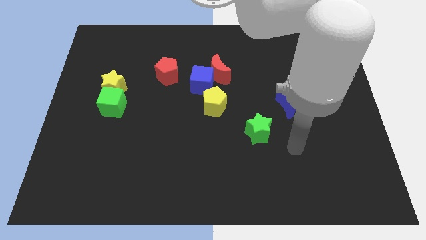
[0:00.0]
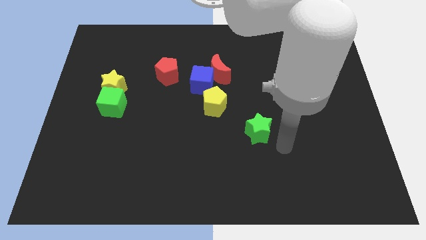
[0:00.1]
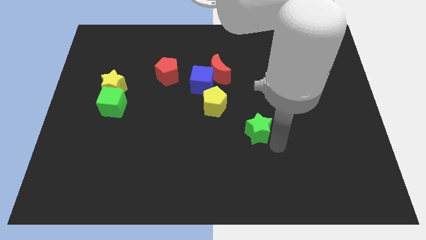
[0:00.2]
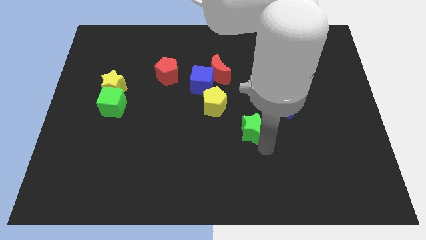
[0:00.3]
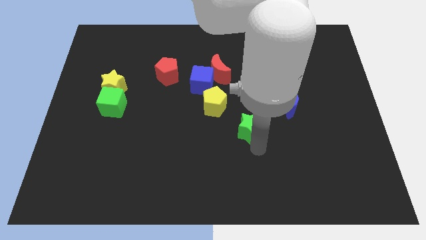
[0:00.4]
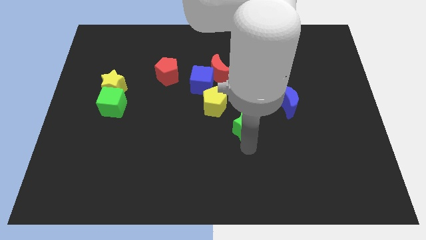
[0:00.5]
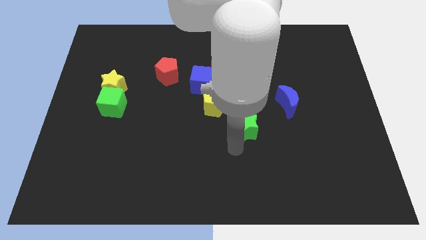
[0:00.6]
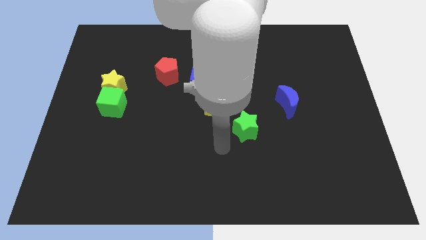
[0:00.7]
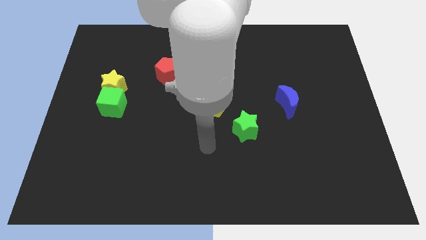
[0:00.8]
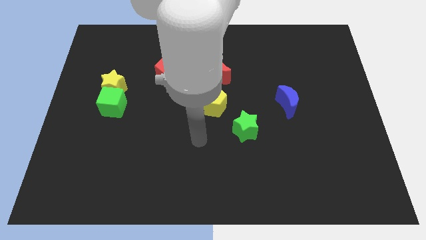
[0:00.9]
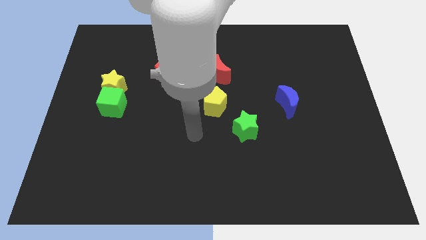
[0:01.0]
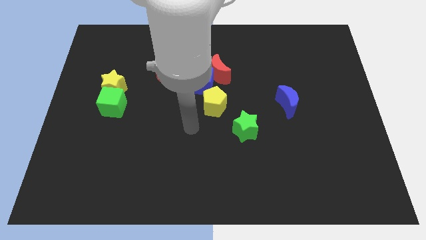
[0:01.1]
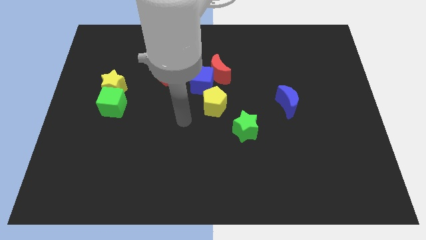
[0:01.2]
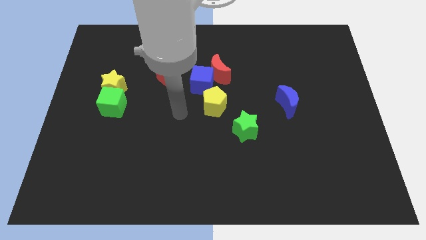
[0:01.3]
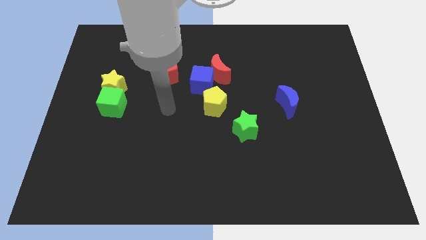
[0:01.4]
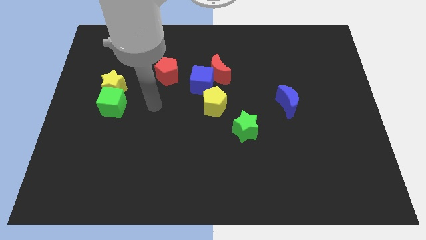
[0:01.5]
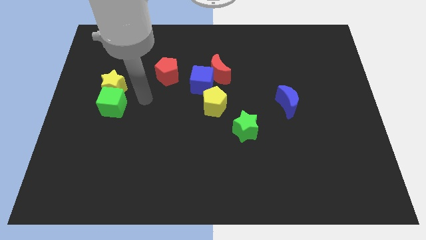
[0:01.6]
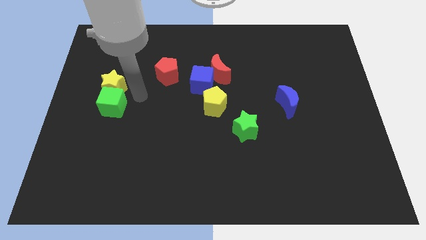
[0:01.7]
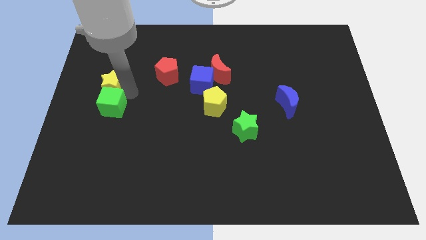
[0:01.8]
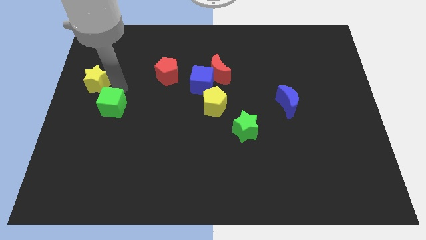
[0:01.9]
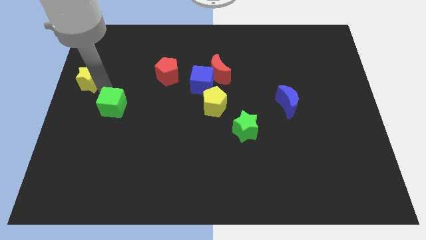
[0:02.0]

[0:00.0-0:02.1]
separate the green cube from the yellow star

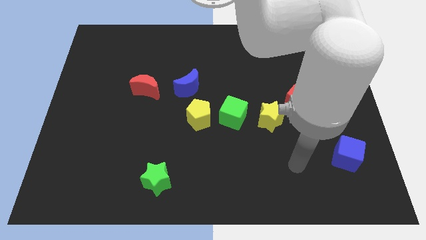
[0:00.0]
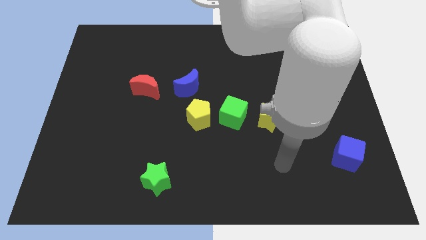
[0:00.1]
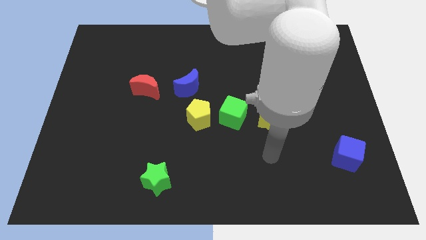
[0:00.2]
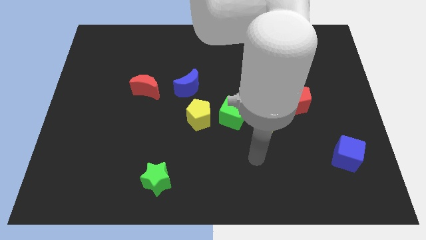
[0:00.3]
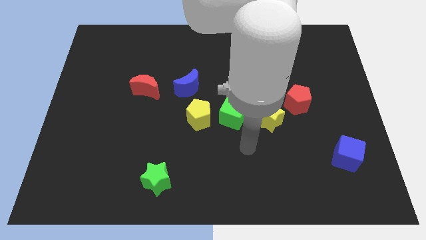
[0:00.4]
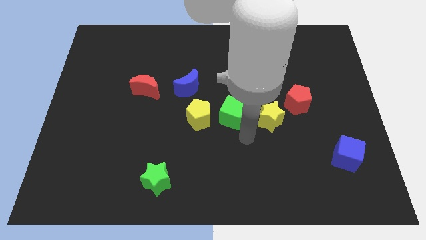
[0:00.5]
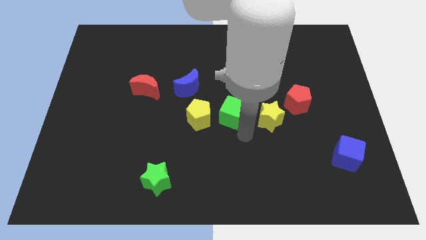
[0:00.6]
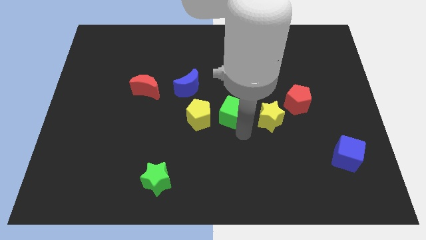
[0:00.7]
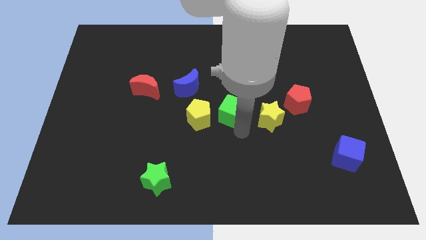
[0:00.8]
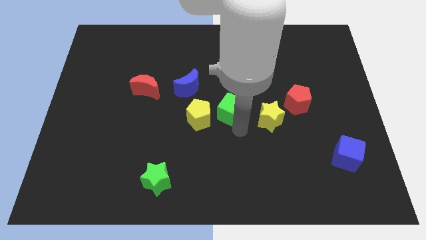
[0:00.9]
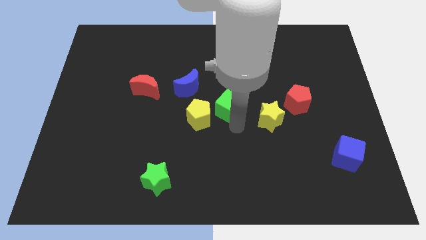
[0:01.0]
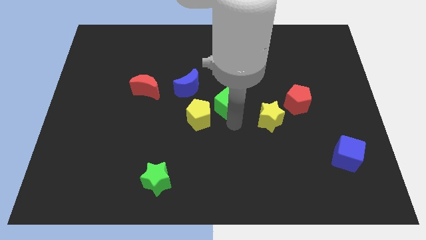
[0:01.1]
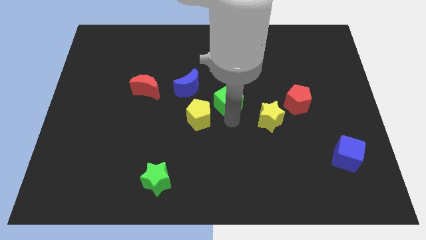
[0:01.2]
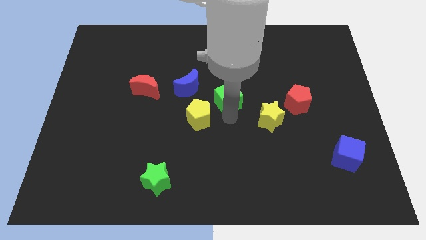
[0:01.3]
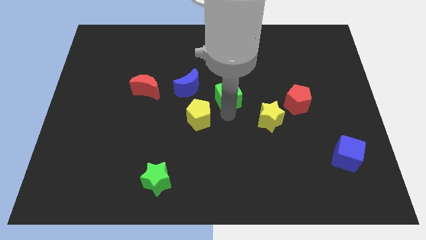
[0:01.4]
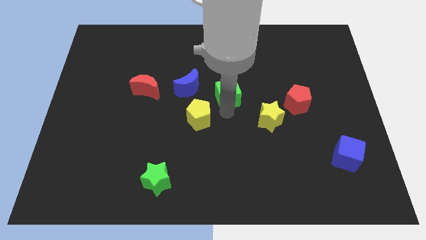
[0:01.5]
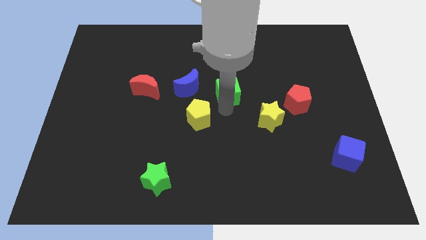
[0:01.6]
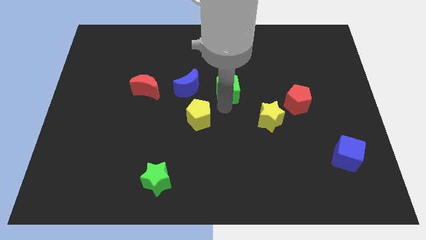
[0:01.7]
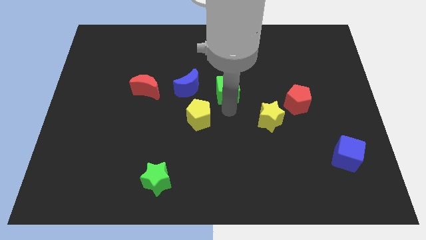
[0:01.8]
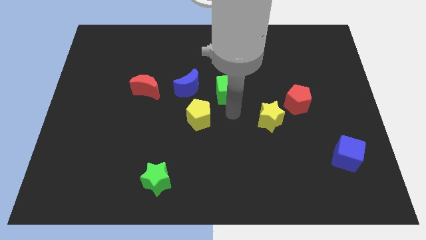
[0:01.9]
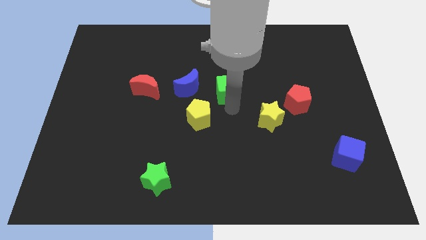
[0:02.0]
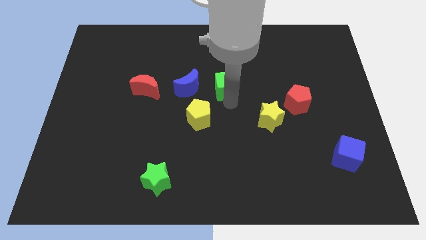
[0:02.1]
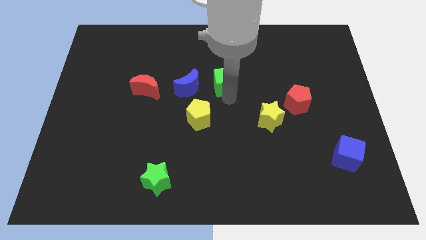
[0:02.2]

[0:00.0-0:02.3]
pull the green cube apart from the yellow pentagon and yellow star

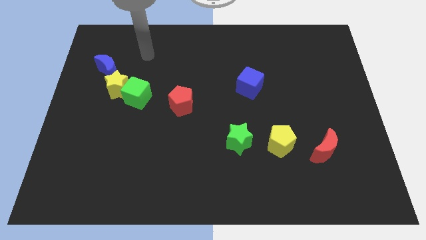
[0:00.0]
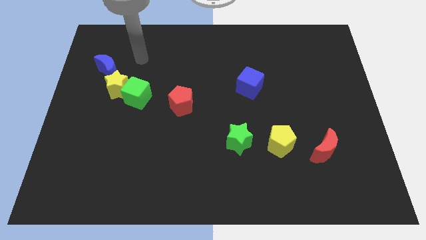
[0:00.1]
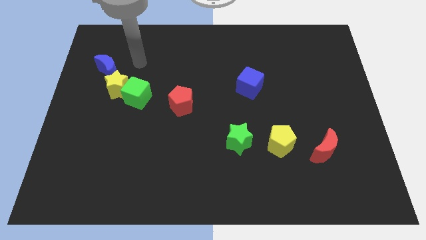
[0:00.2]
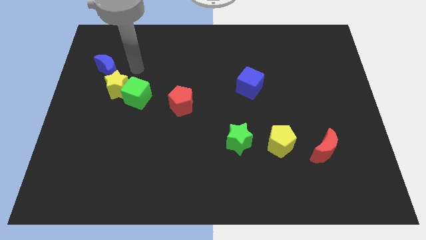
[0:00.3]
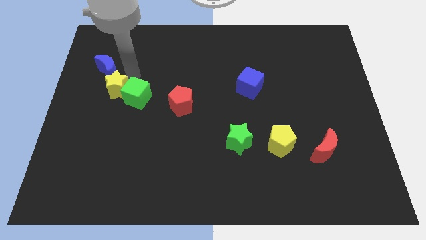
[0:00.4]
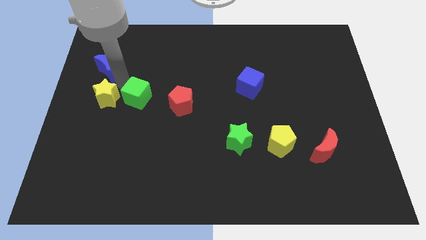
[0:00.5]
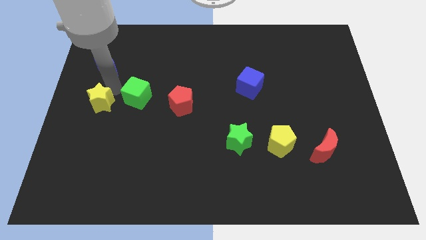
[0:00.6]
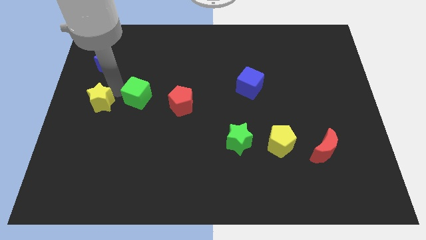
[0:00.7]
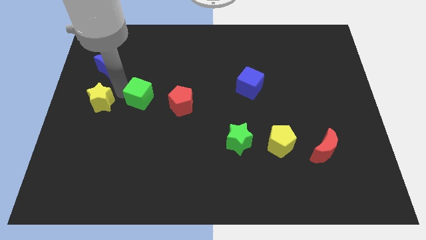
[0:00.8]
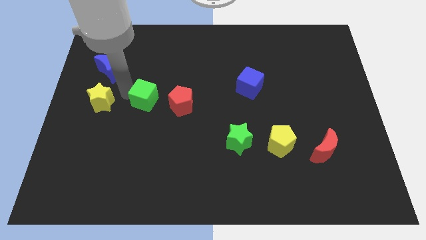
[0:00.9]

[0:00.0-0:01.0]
move the green cube away from the yellow star

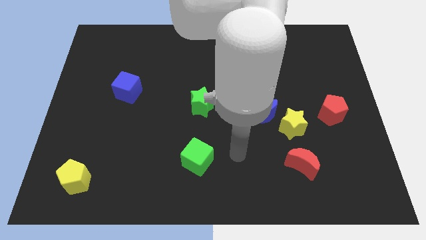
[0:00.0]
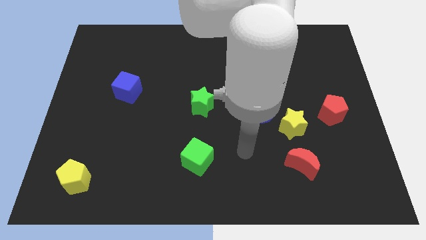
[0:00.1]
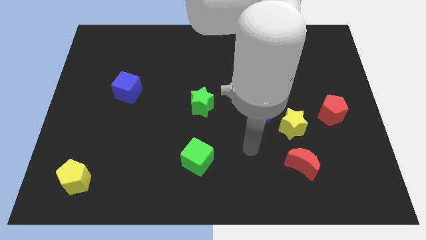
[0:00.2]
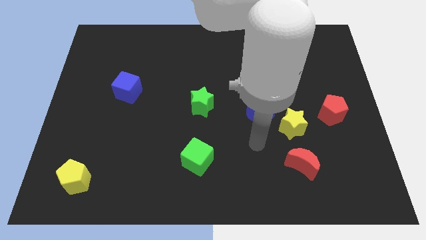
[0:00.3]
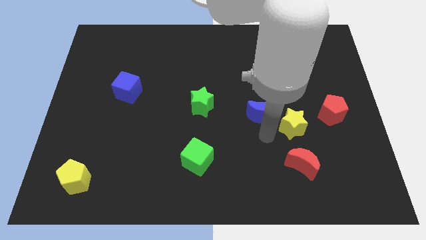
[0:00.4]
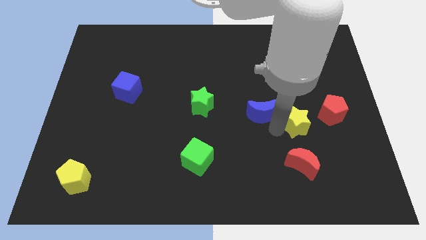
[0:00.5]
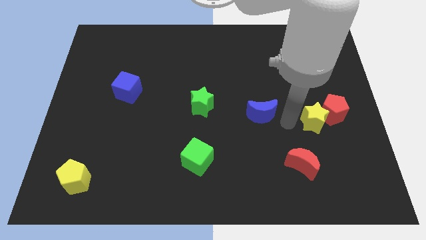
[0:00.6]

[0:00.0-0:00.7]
separate the blue moon from the yellow star

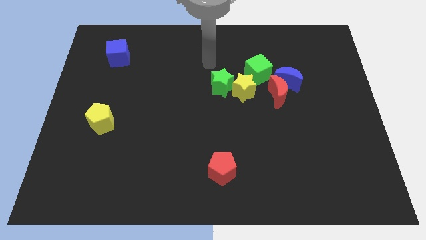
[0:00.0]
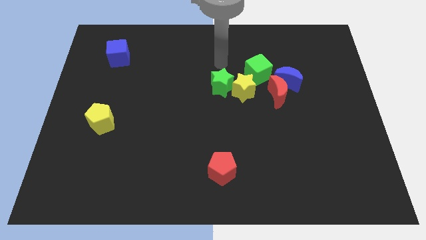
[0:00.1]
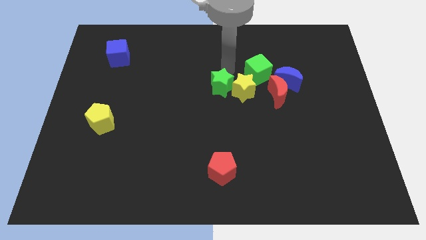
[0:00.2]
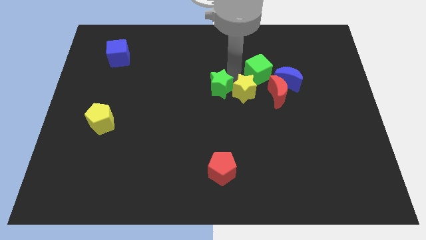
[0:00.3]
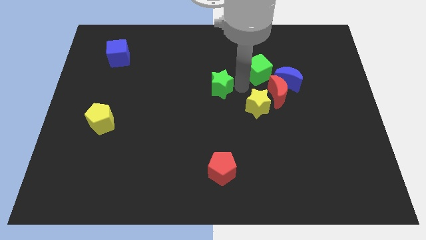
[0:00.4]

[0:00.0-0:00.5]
move the green star away from the yellow star

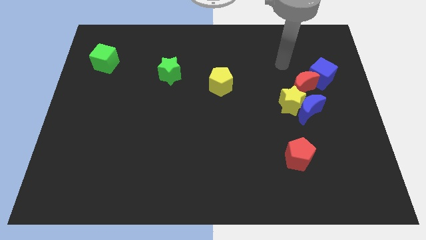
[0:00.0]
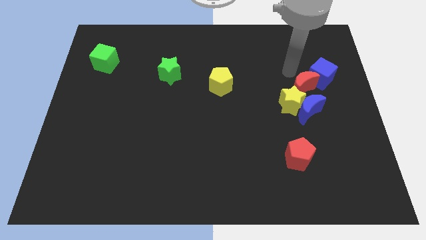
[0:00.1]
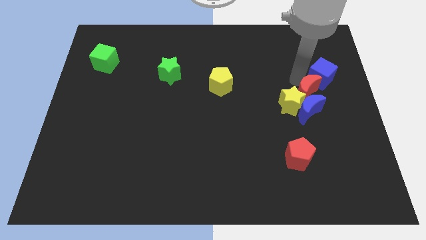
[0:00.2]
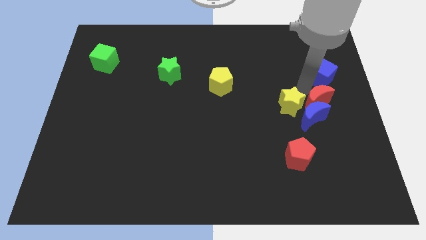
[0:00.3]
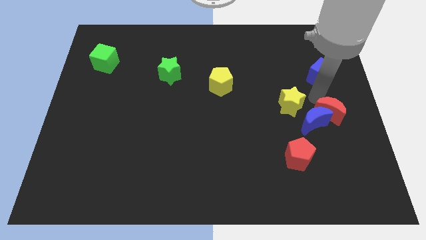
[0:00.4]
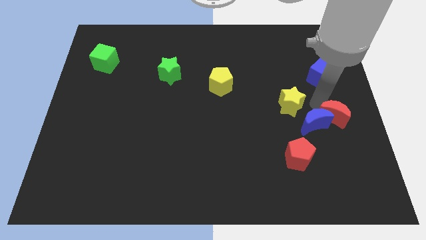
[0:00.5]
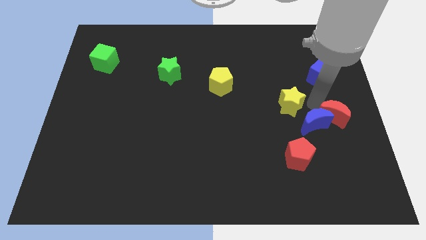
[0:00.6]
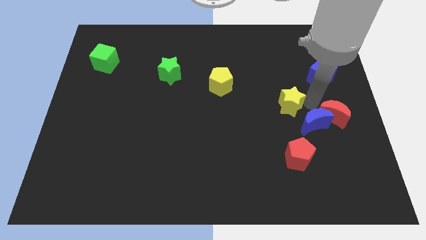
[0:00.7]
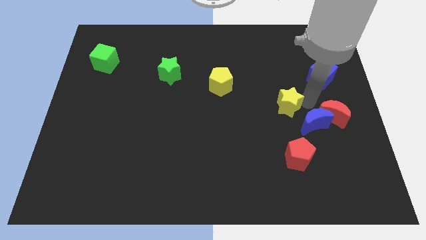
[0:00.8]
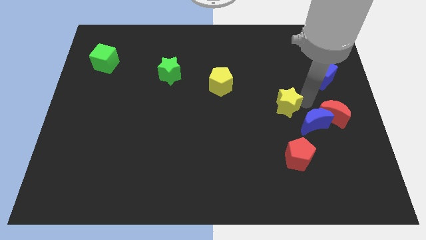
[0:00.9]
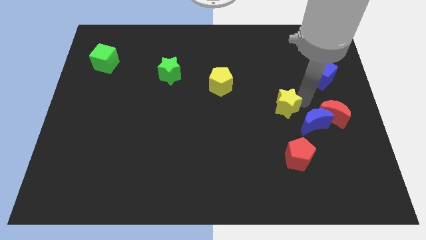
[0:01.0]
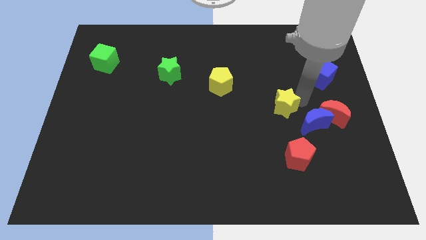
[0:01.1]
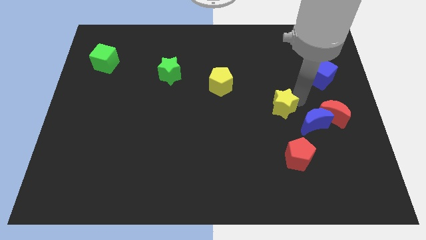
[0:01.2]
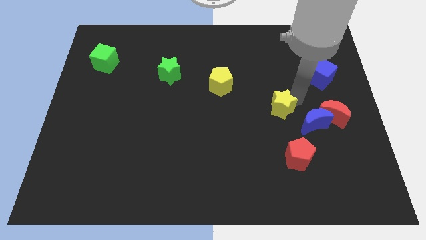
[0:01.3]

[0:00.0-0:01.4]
pull the yellow star apart from the blue moon and red moon

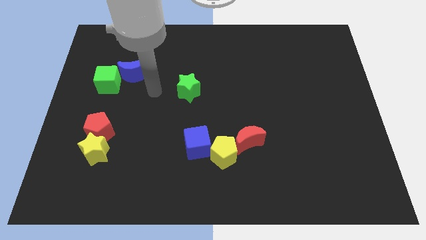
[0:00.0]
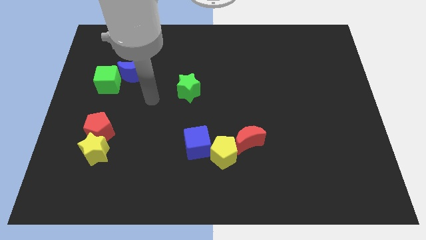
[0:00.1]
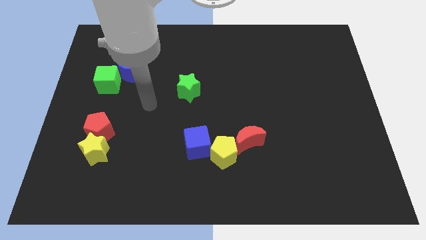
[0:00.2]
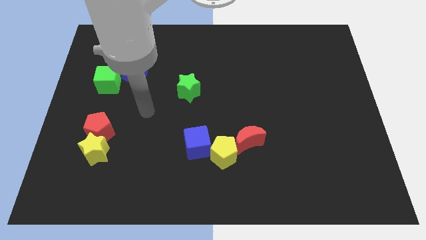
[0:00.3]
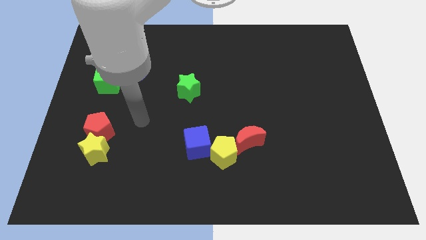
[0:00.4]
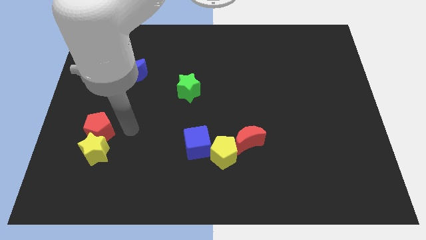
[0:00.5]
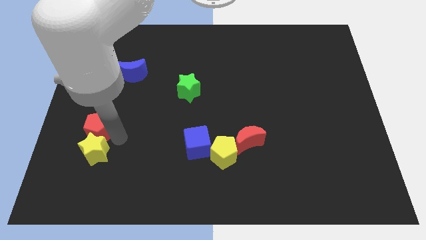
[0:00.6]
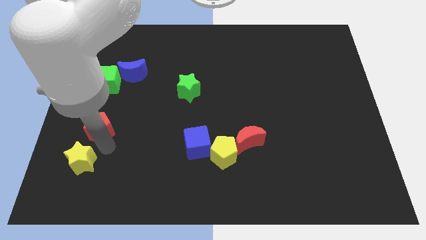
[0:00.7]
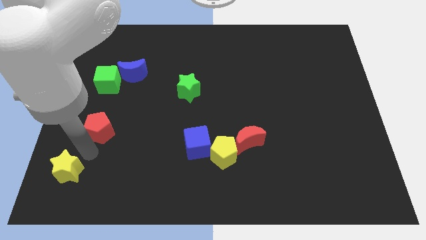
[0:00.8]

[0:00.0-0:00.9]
separate the red pentagon from the yellow star

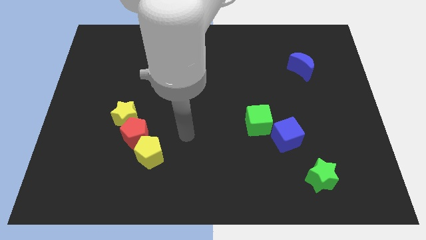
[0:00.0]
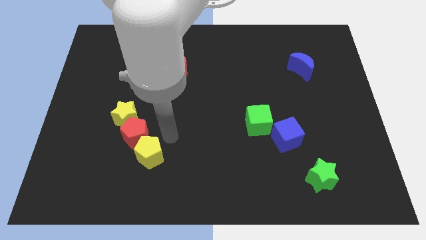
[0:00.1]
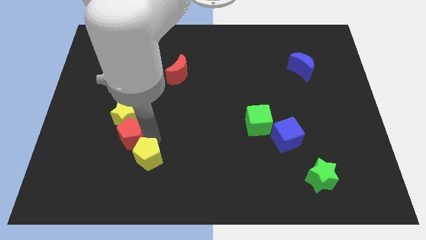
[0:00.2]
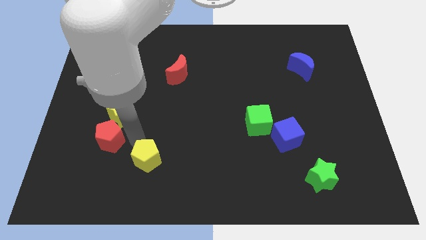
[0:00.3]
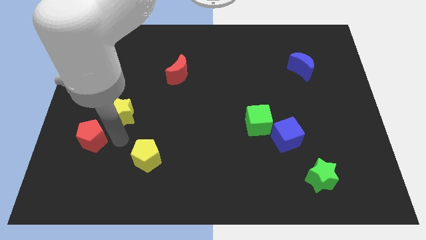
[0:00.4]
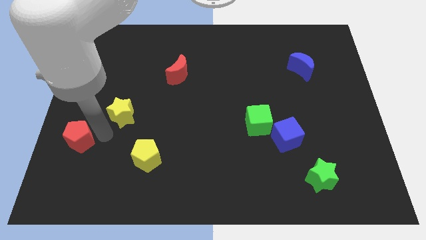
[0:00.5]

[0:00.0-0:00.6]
move the yellow star away from the red pentagon
